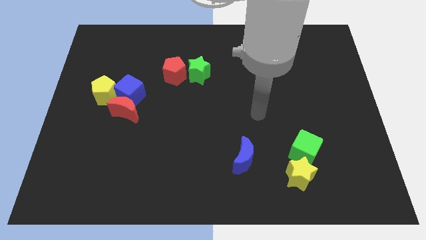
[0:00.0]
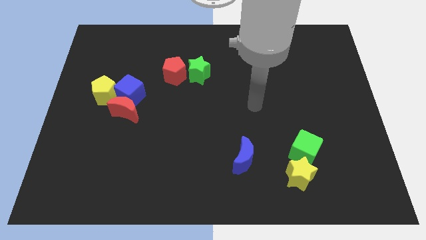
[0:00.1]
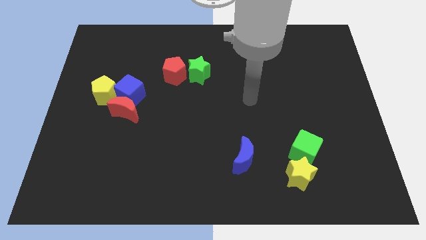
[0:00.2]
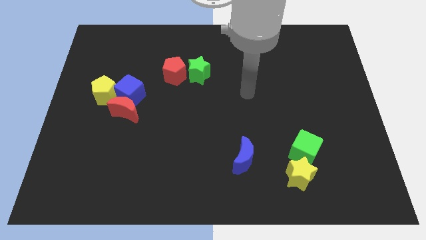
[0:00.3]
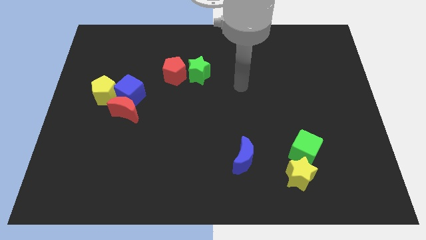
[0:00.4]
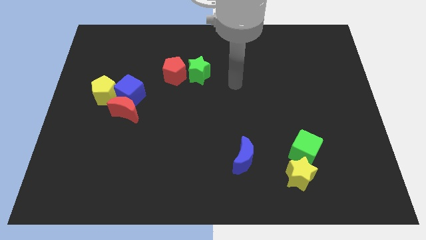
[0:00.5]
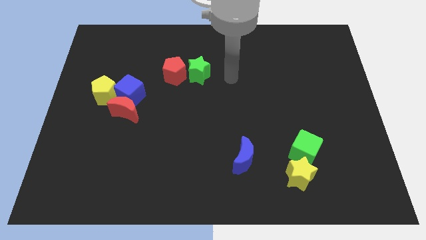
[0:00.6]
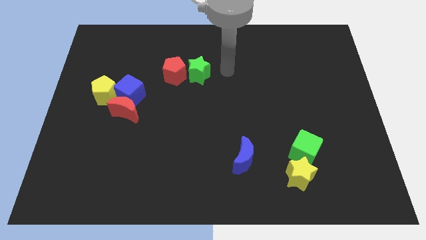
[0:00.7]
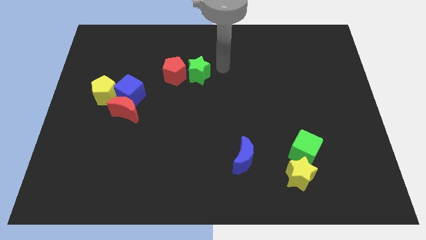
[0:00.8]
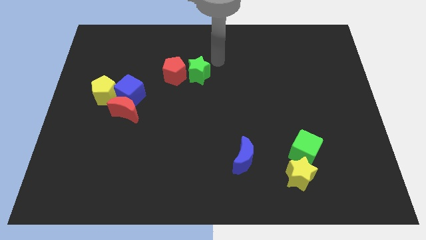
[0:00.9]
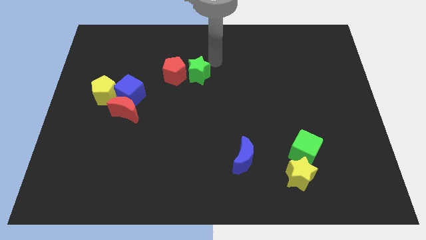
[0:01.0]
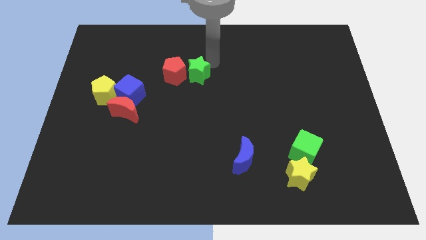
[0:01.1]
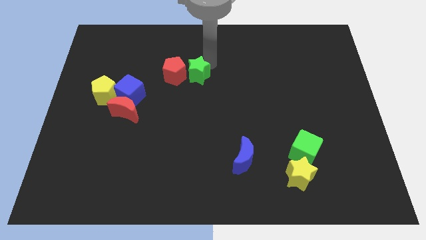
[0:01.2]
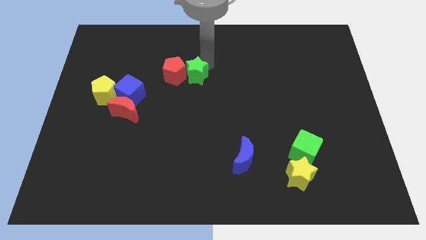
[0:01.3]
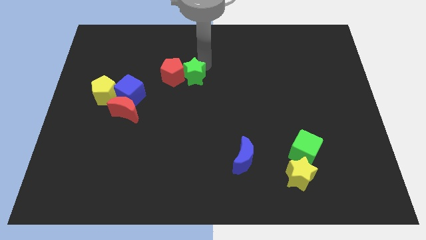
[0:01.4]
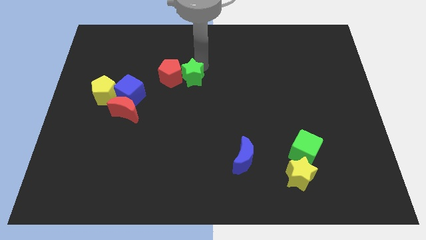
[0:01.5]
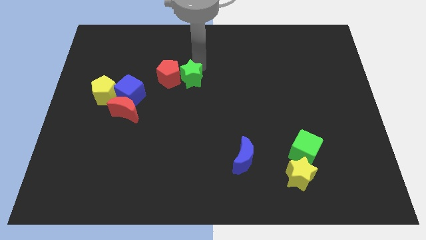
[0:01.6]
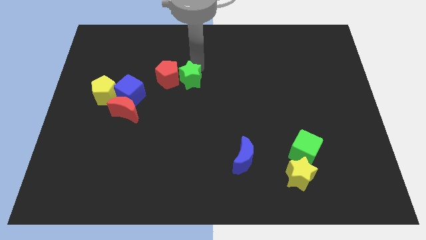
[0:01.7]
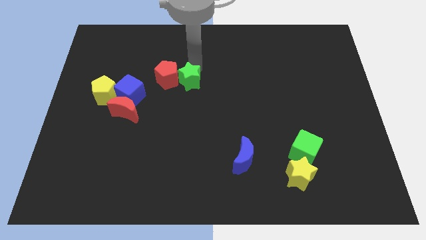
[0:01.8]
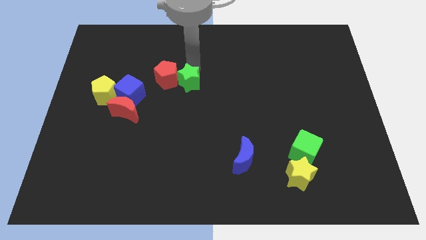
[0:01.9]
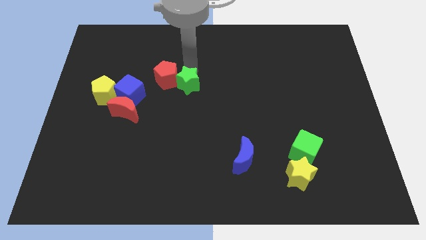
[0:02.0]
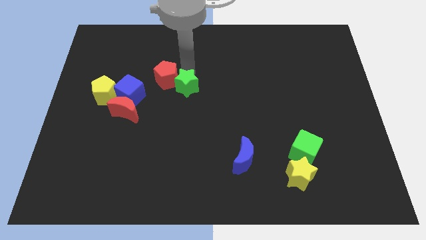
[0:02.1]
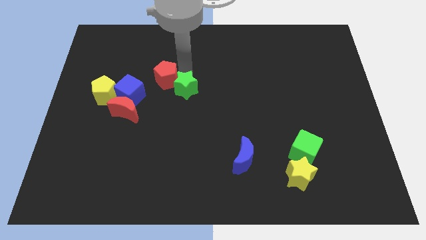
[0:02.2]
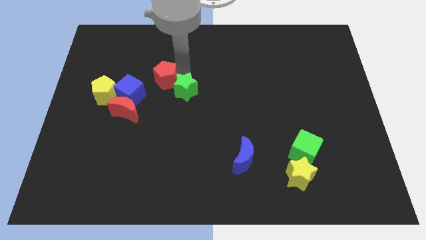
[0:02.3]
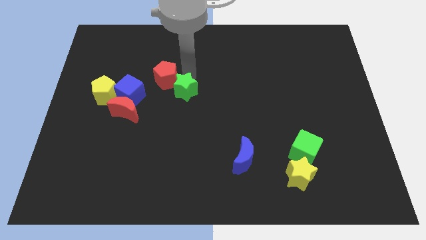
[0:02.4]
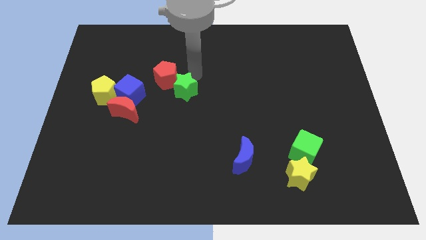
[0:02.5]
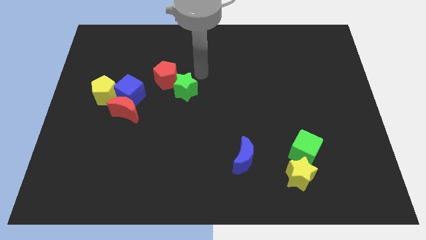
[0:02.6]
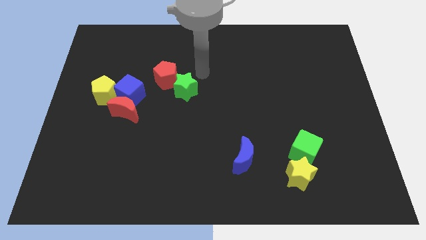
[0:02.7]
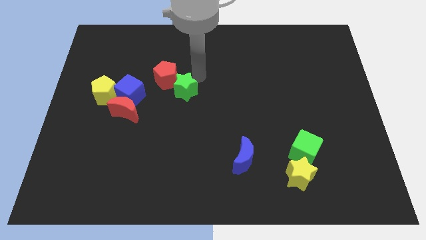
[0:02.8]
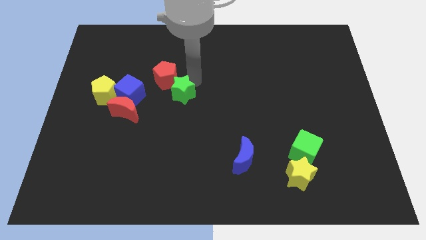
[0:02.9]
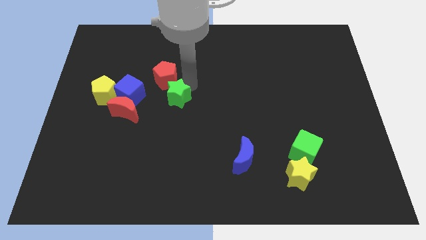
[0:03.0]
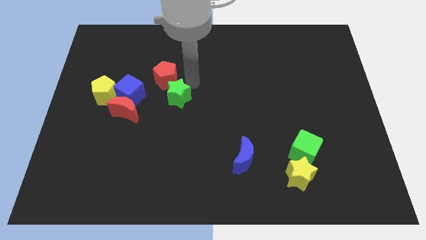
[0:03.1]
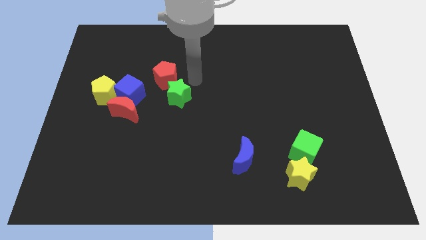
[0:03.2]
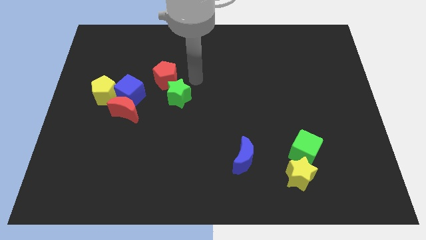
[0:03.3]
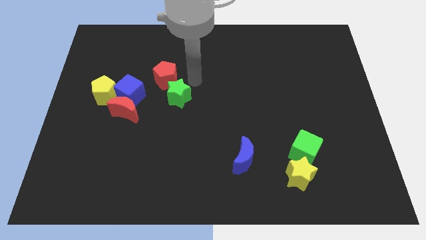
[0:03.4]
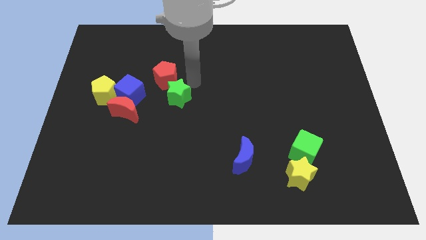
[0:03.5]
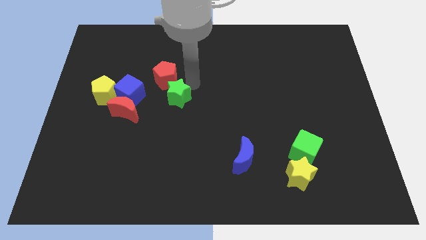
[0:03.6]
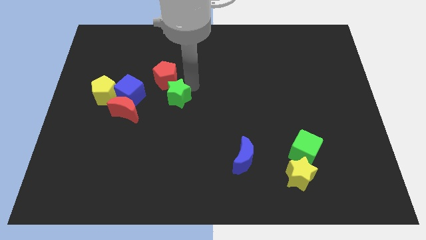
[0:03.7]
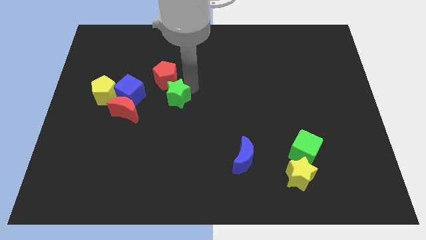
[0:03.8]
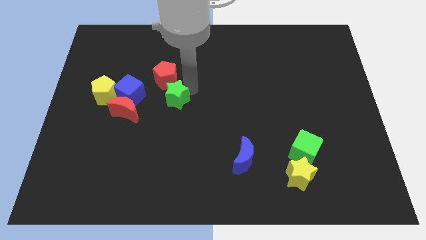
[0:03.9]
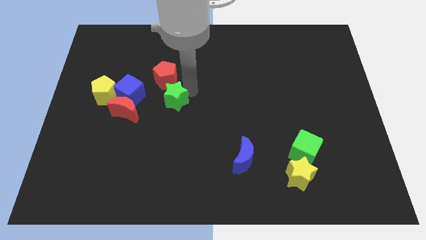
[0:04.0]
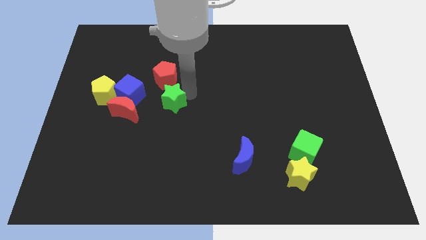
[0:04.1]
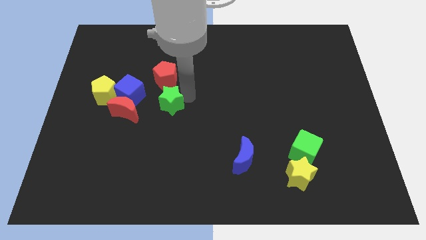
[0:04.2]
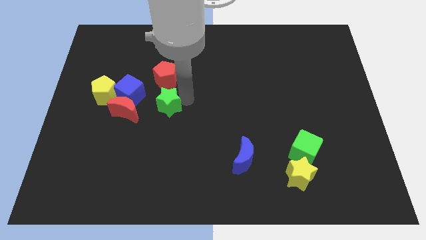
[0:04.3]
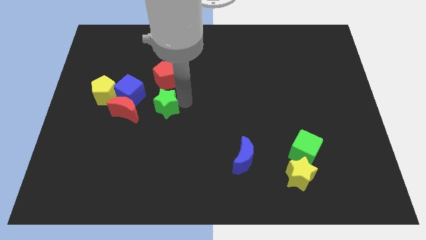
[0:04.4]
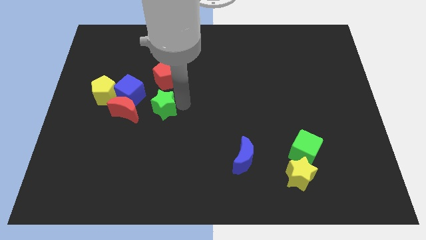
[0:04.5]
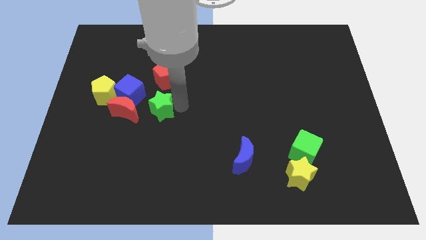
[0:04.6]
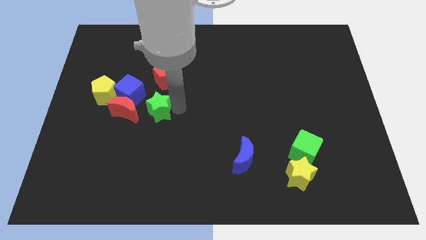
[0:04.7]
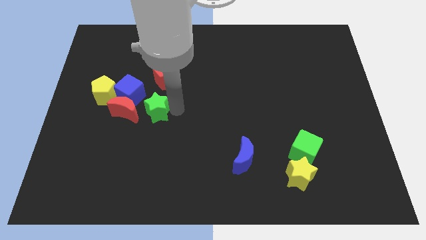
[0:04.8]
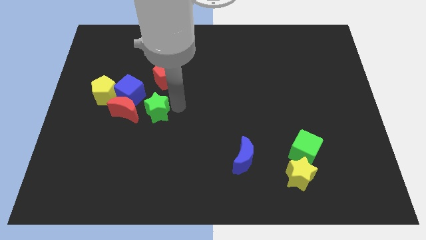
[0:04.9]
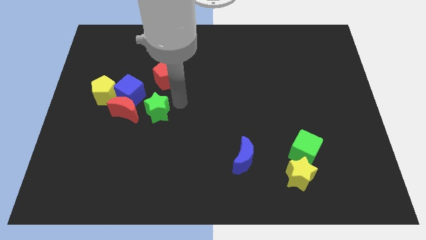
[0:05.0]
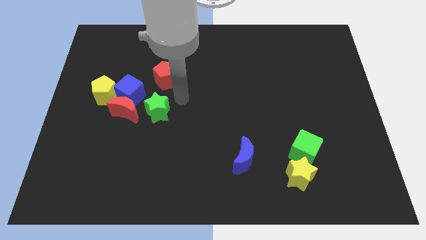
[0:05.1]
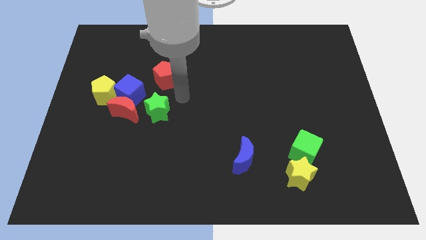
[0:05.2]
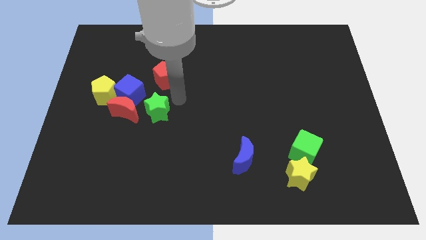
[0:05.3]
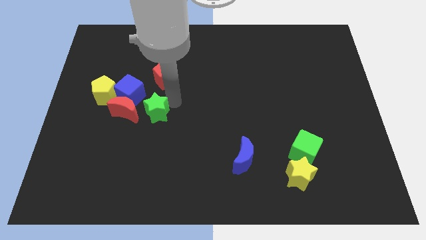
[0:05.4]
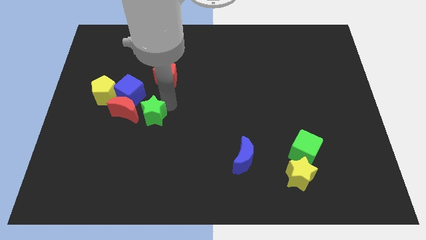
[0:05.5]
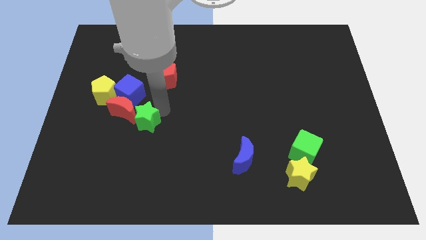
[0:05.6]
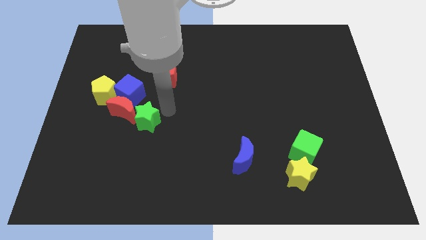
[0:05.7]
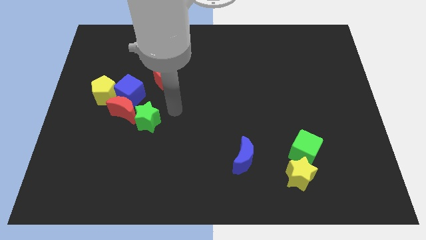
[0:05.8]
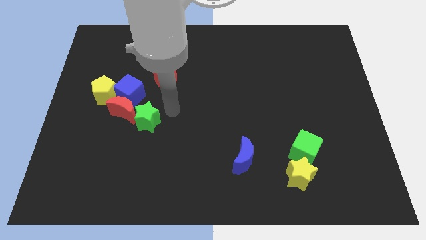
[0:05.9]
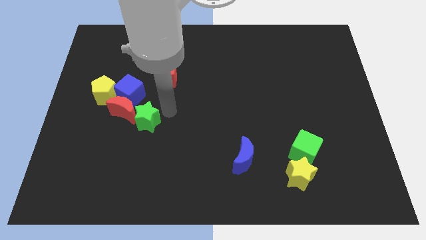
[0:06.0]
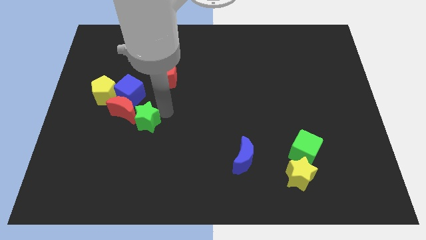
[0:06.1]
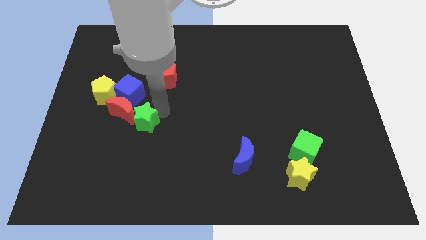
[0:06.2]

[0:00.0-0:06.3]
slide the green star to the bottom of the blue cube

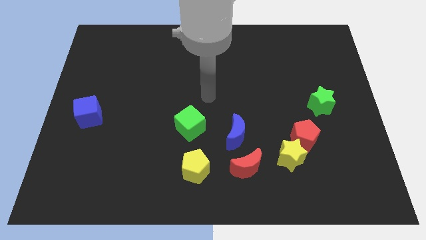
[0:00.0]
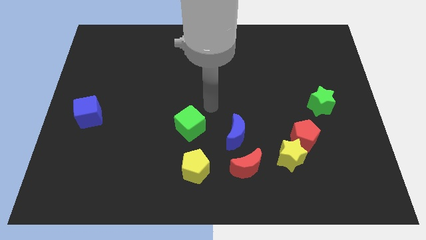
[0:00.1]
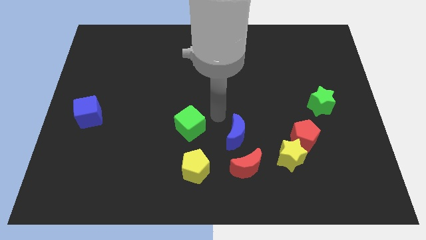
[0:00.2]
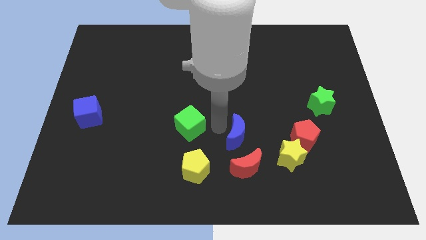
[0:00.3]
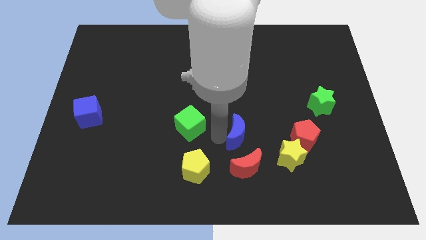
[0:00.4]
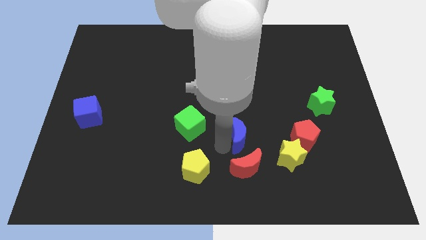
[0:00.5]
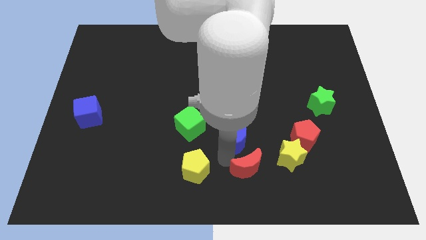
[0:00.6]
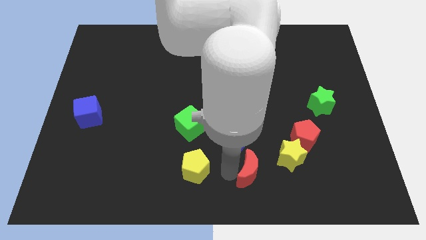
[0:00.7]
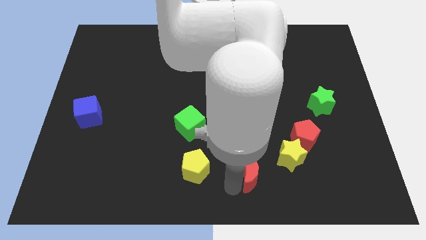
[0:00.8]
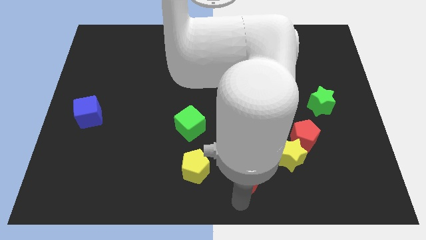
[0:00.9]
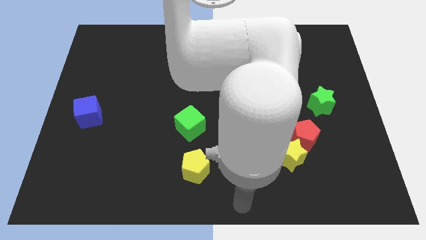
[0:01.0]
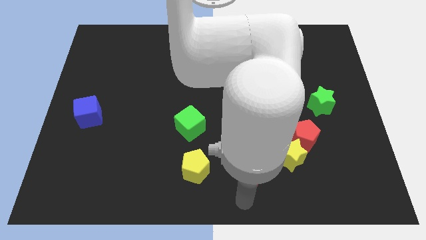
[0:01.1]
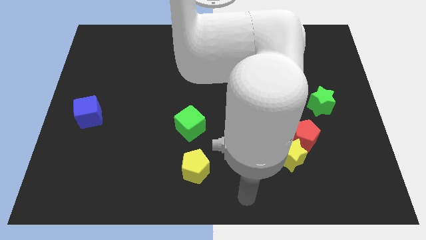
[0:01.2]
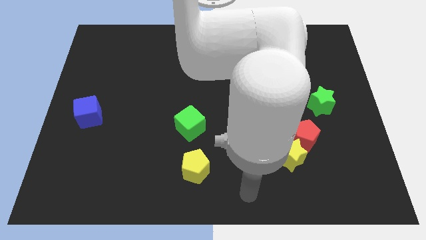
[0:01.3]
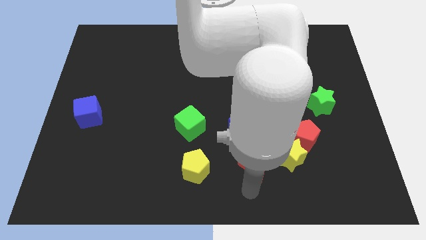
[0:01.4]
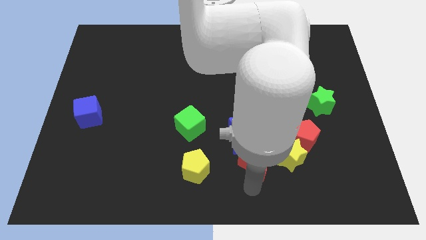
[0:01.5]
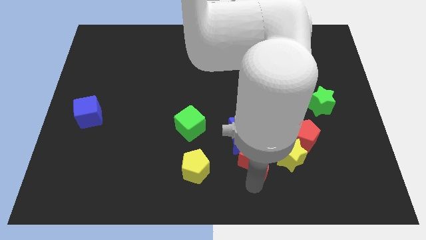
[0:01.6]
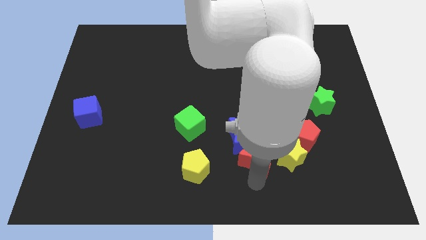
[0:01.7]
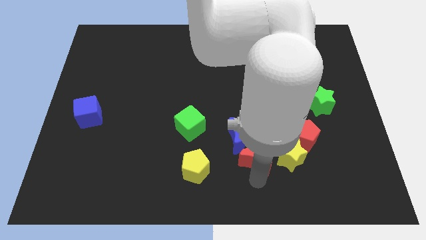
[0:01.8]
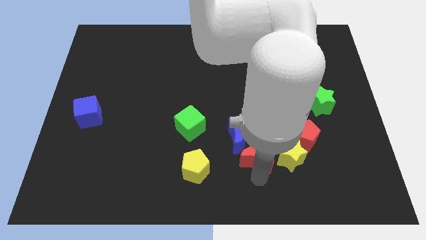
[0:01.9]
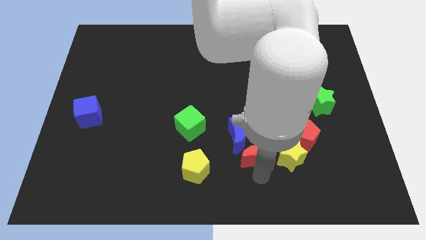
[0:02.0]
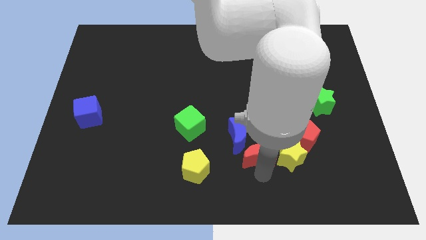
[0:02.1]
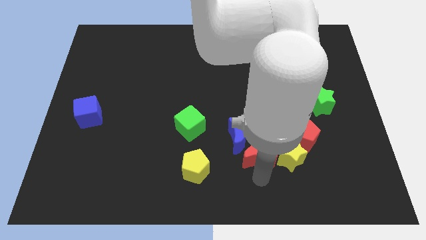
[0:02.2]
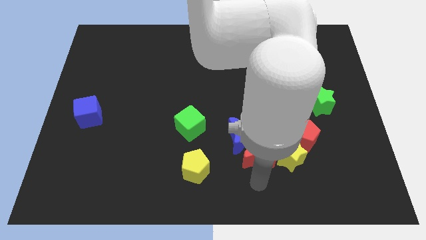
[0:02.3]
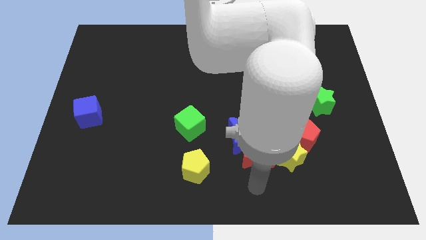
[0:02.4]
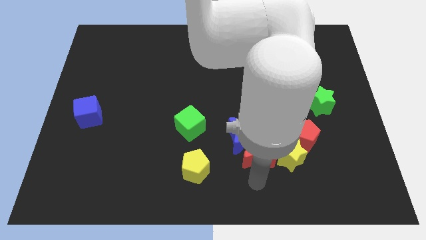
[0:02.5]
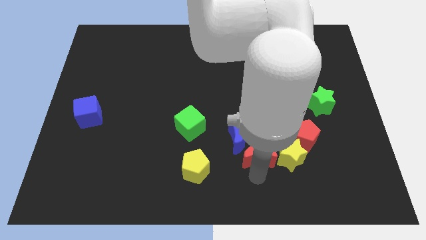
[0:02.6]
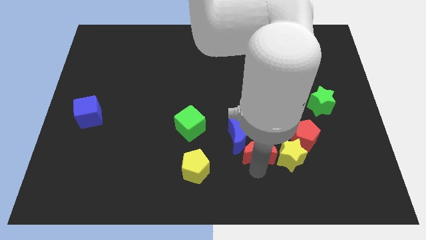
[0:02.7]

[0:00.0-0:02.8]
slide the red moon to the right side of the blue moon
